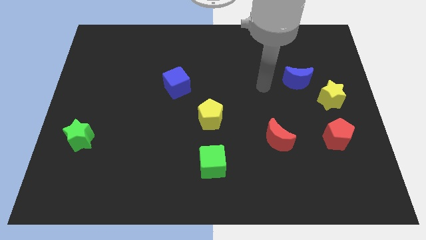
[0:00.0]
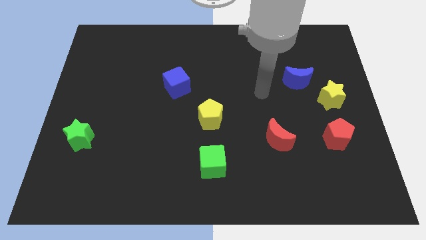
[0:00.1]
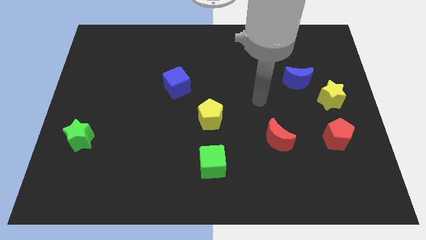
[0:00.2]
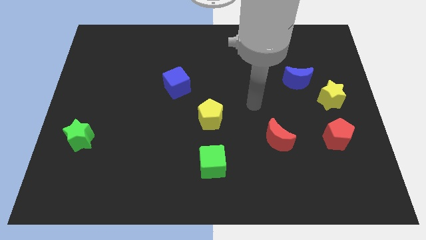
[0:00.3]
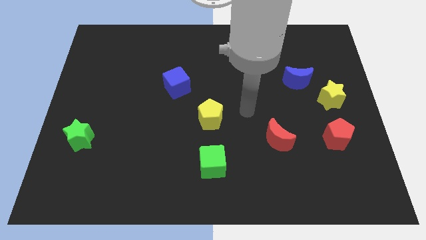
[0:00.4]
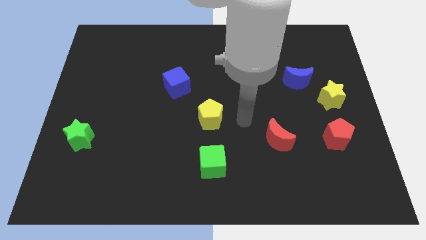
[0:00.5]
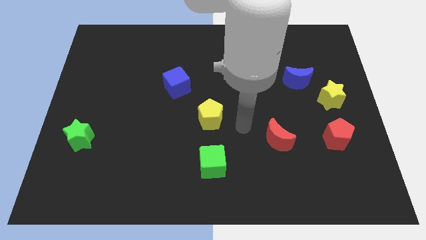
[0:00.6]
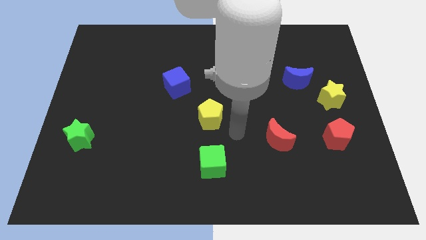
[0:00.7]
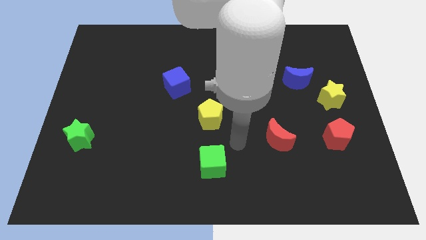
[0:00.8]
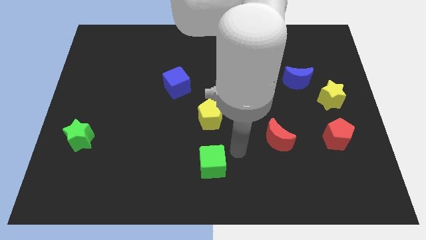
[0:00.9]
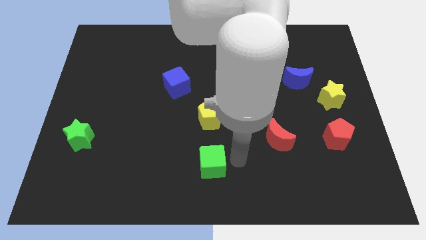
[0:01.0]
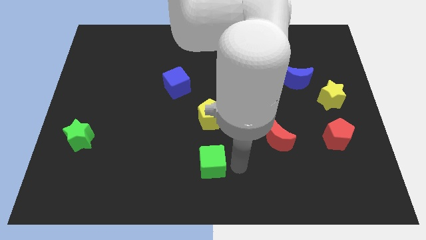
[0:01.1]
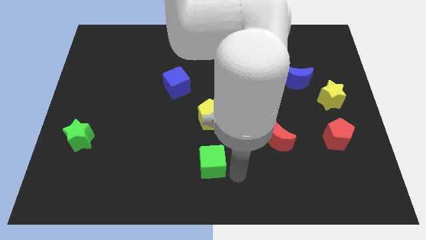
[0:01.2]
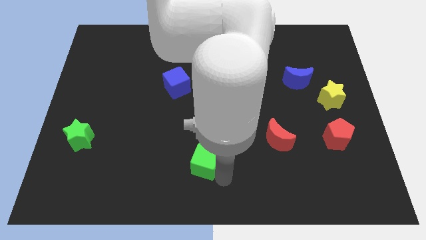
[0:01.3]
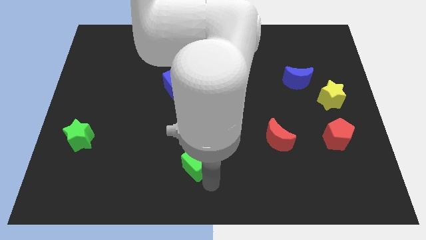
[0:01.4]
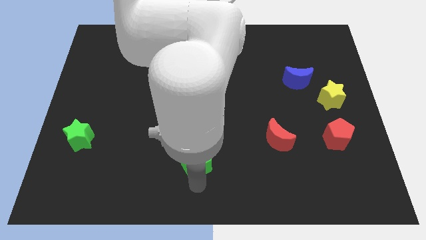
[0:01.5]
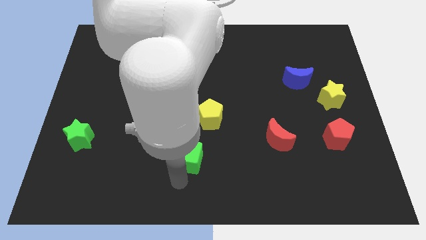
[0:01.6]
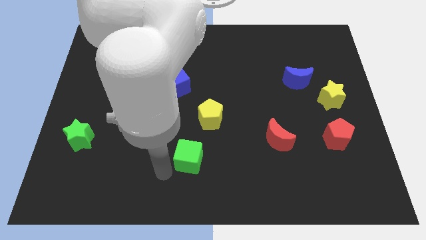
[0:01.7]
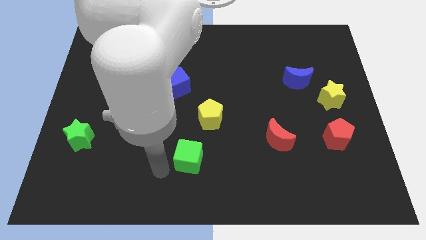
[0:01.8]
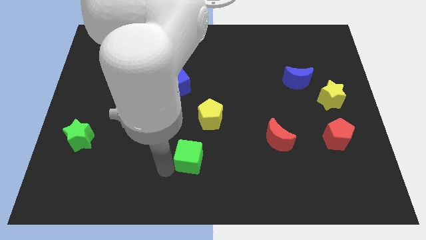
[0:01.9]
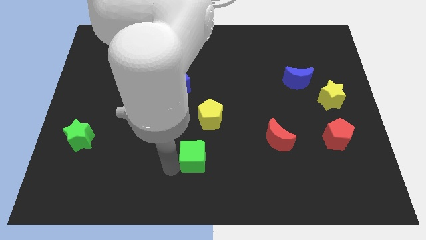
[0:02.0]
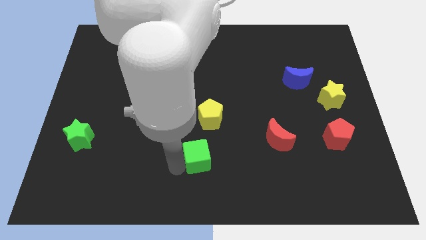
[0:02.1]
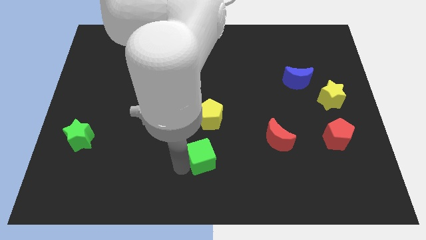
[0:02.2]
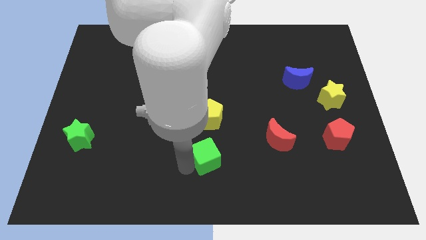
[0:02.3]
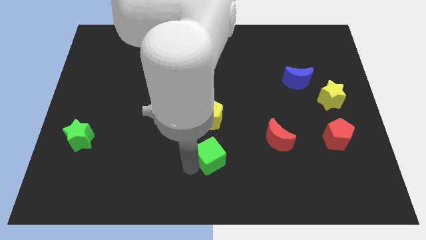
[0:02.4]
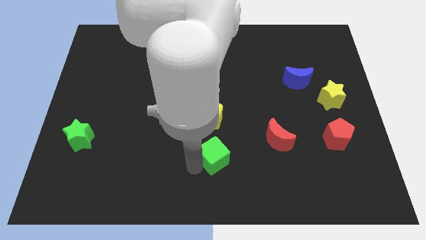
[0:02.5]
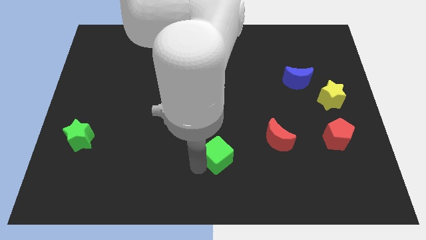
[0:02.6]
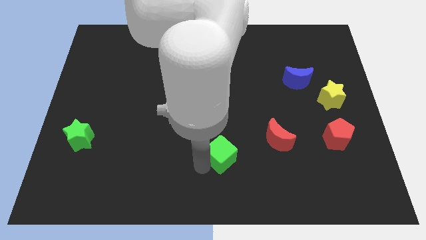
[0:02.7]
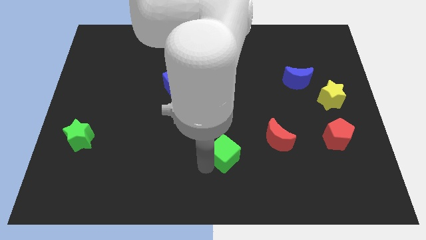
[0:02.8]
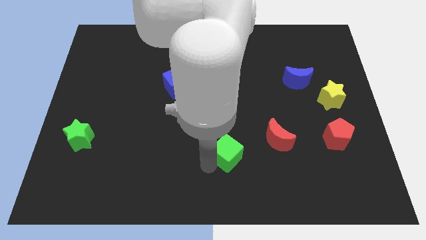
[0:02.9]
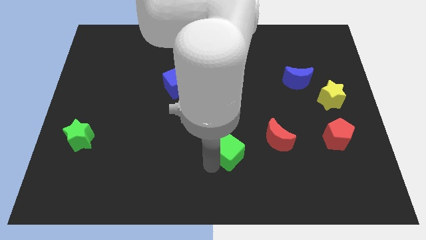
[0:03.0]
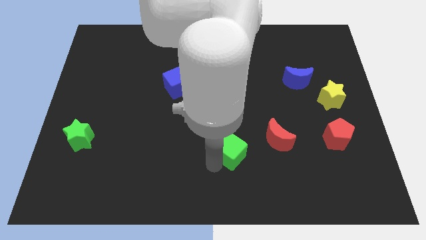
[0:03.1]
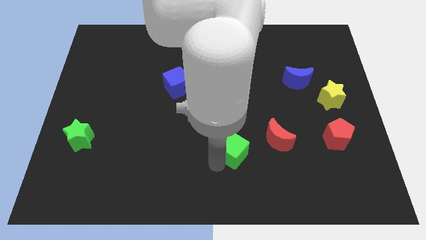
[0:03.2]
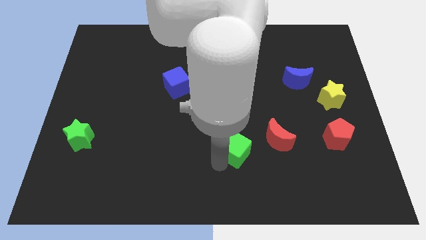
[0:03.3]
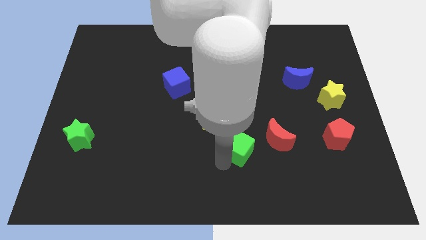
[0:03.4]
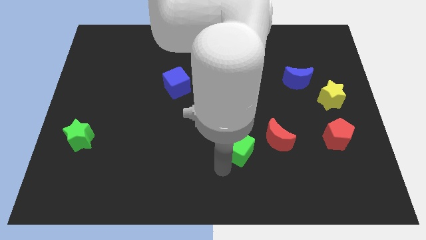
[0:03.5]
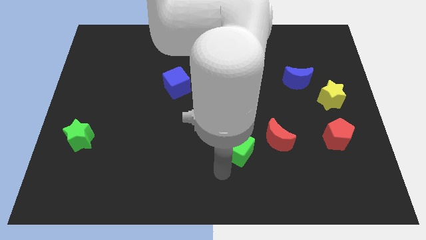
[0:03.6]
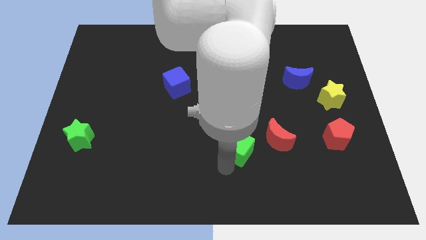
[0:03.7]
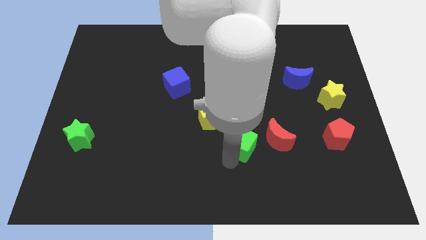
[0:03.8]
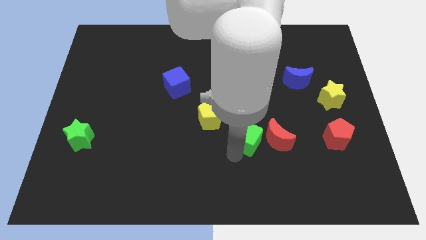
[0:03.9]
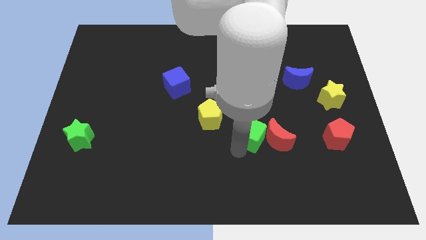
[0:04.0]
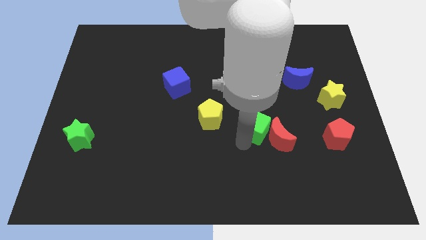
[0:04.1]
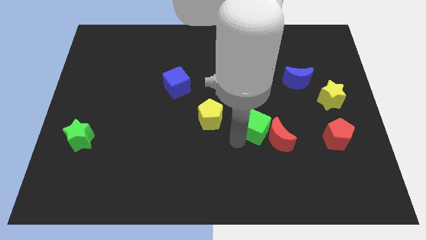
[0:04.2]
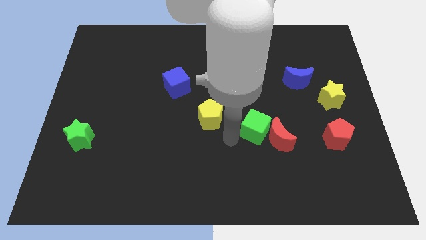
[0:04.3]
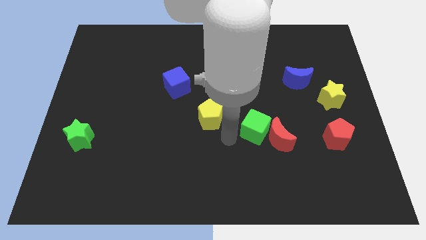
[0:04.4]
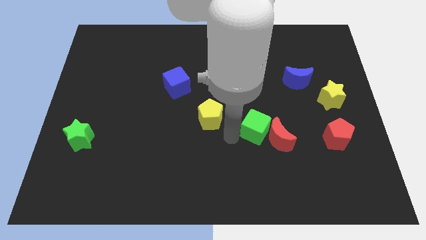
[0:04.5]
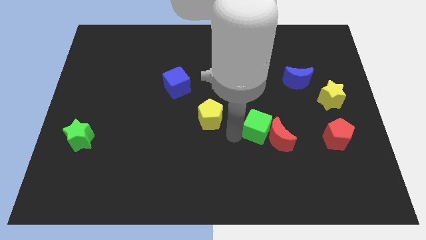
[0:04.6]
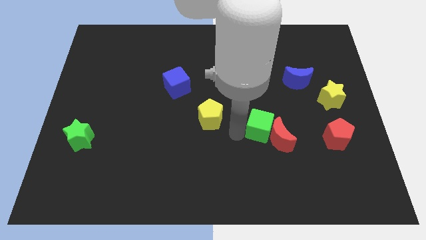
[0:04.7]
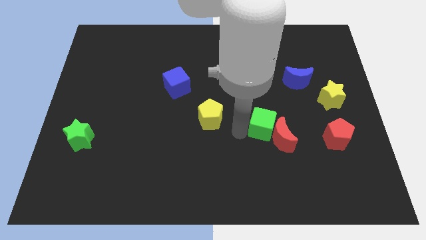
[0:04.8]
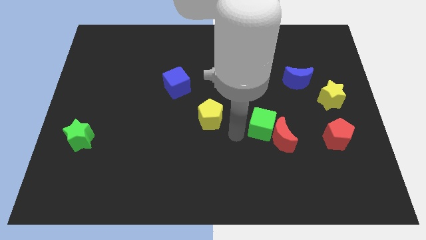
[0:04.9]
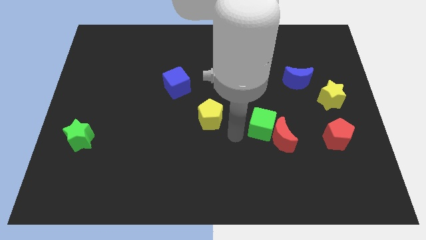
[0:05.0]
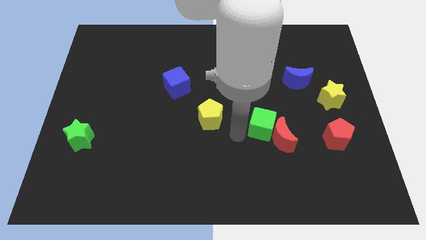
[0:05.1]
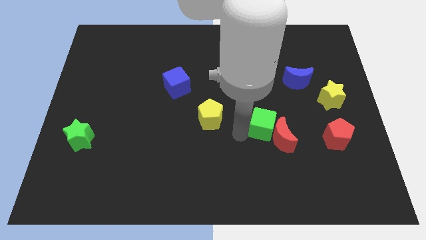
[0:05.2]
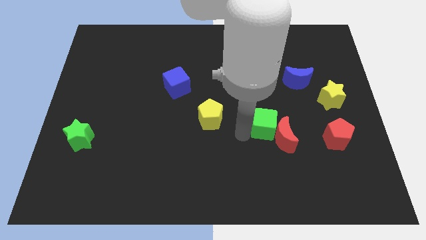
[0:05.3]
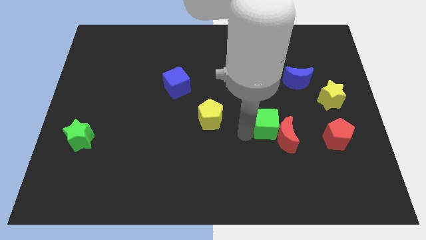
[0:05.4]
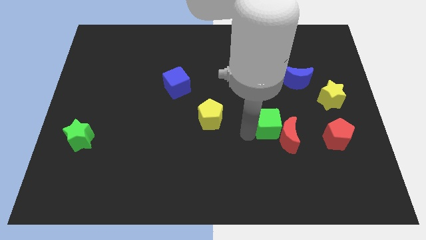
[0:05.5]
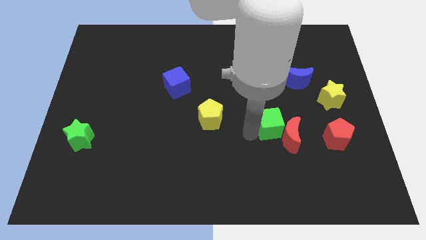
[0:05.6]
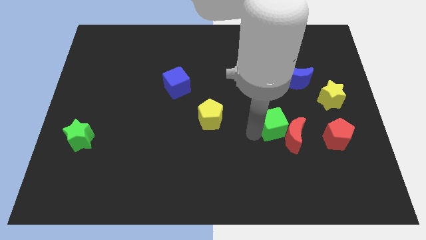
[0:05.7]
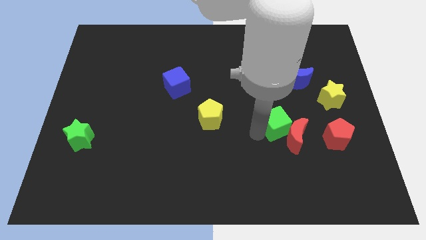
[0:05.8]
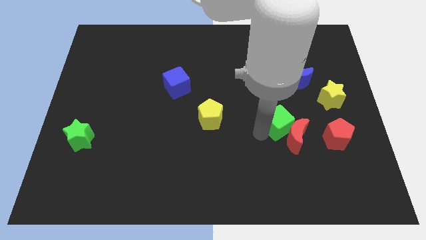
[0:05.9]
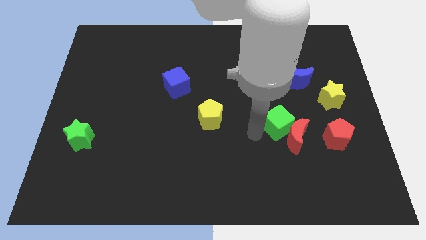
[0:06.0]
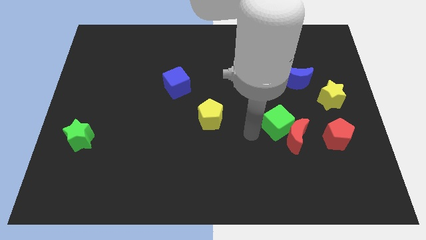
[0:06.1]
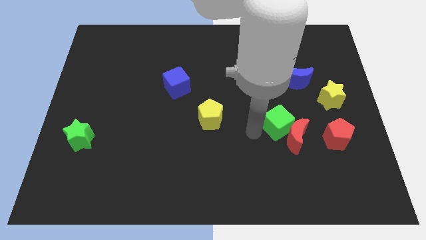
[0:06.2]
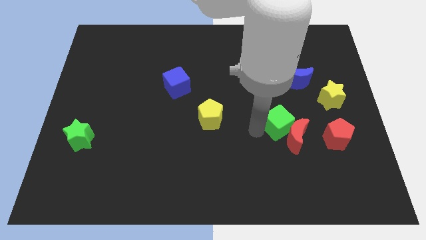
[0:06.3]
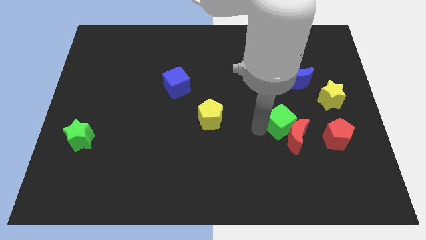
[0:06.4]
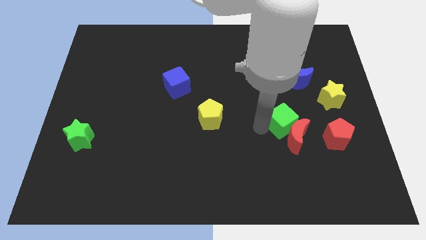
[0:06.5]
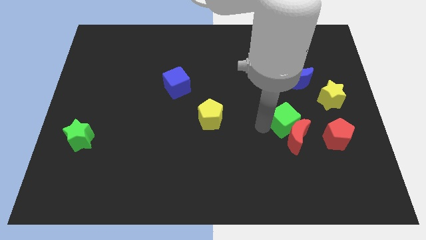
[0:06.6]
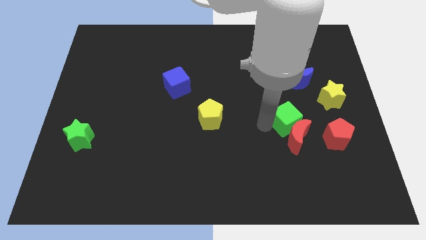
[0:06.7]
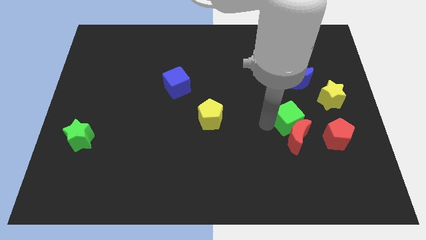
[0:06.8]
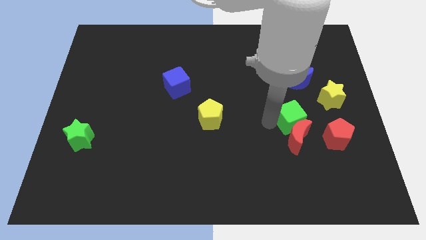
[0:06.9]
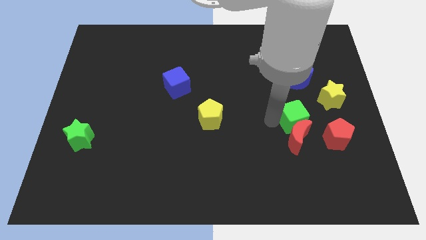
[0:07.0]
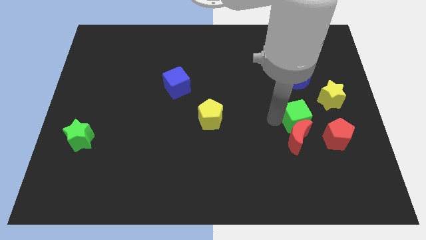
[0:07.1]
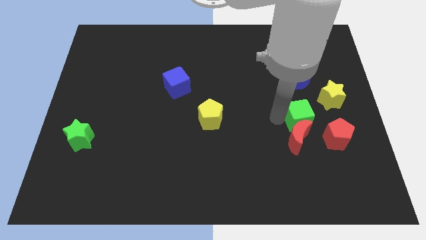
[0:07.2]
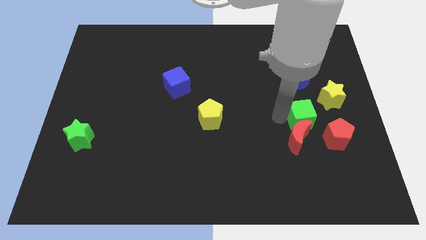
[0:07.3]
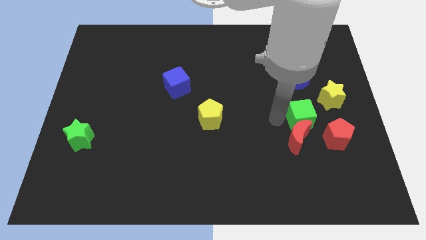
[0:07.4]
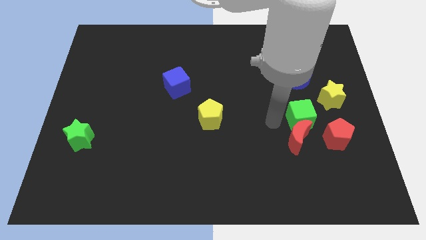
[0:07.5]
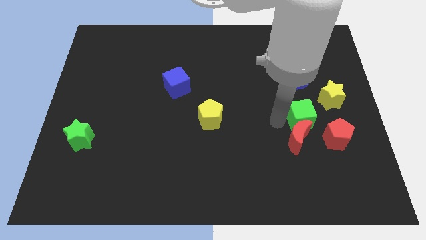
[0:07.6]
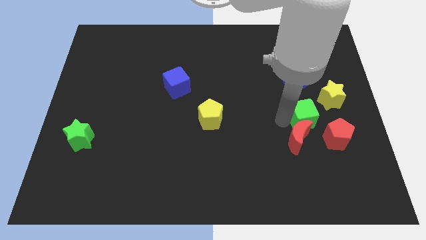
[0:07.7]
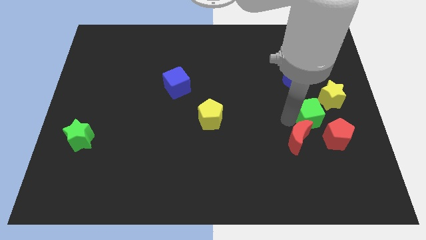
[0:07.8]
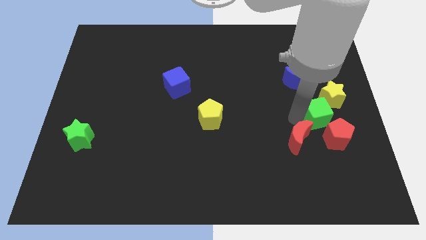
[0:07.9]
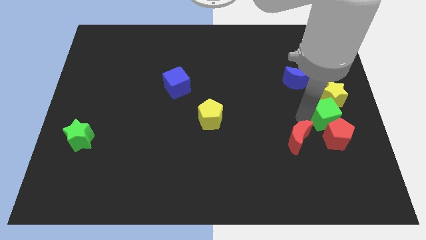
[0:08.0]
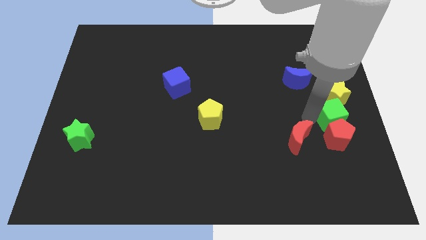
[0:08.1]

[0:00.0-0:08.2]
push the green cube to the center right
